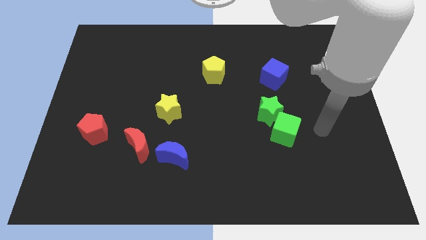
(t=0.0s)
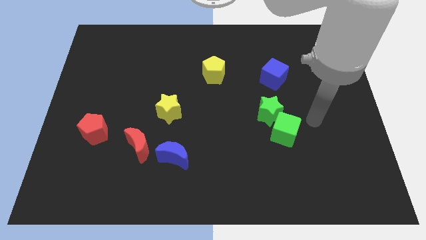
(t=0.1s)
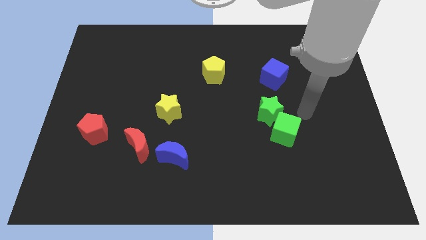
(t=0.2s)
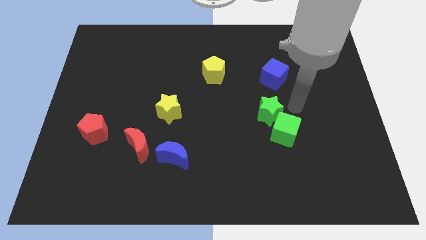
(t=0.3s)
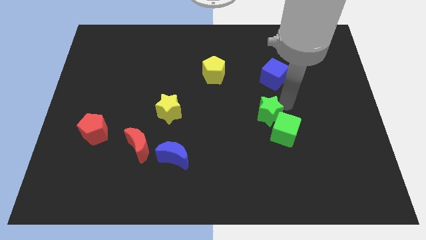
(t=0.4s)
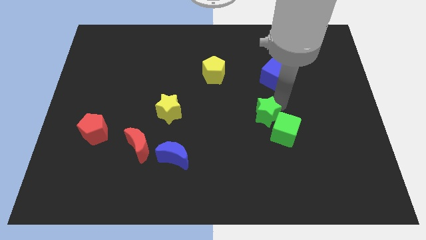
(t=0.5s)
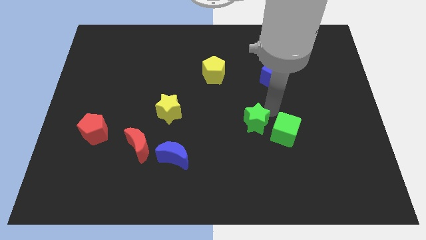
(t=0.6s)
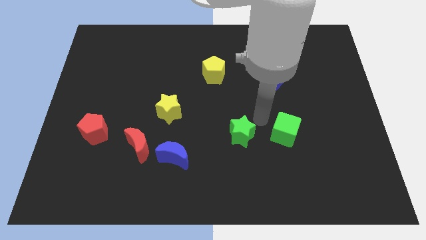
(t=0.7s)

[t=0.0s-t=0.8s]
pull the green cube apart from the green star

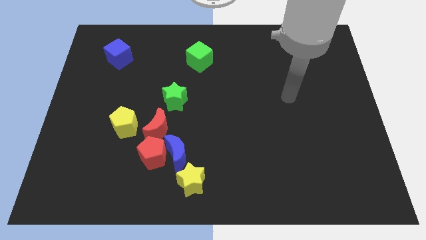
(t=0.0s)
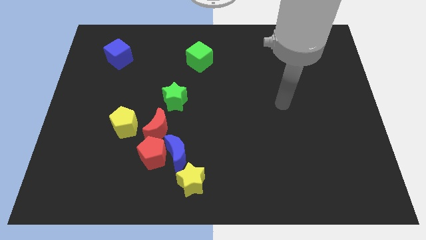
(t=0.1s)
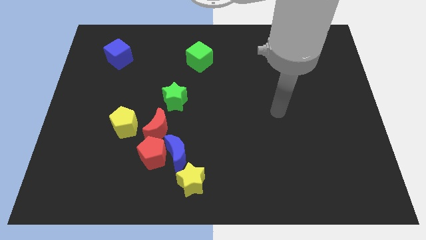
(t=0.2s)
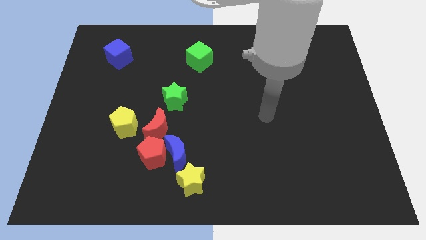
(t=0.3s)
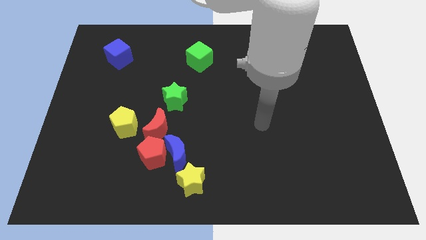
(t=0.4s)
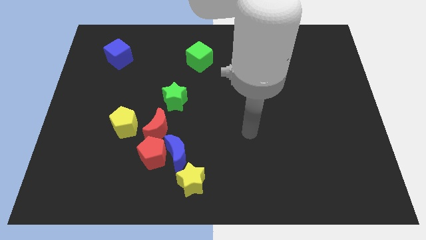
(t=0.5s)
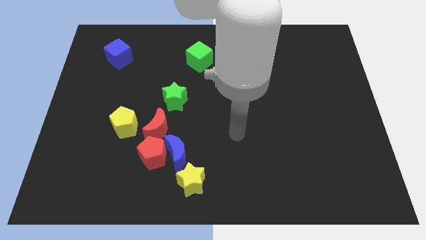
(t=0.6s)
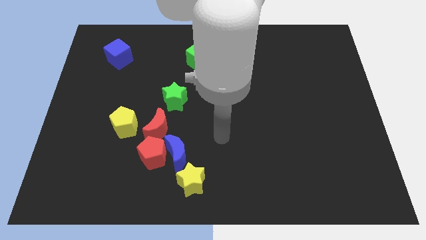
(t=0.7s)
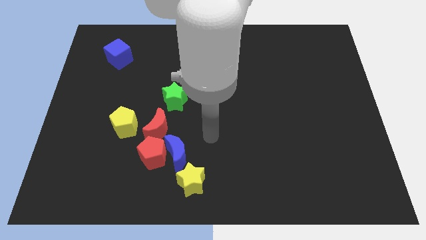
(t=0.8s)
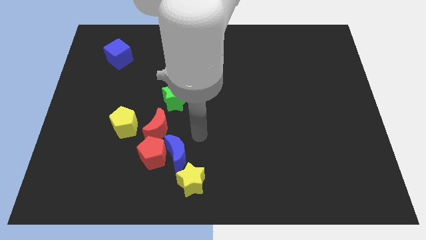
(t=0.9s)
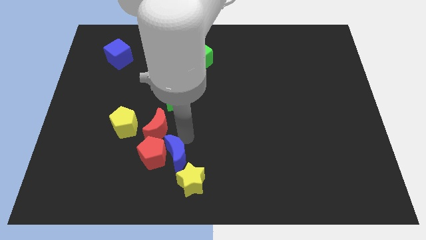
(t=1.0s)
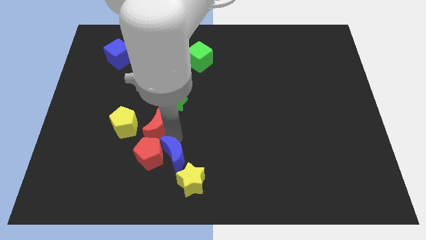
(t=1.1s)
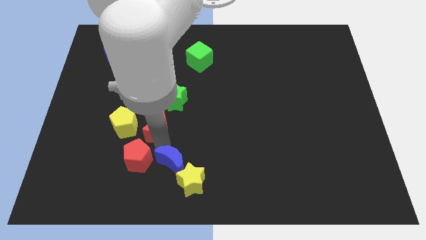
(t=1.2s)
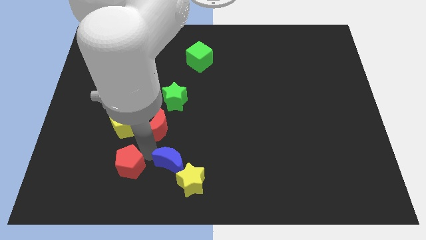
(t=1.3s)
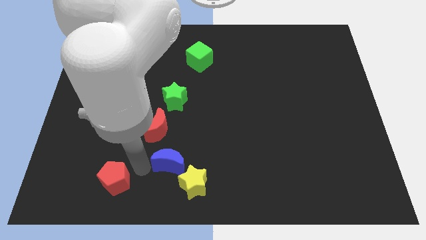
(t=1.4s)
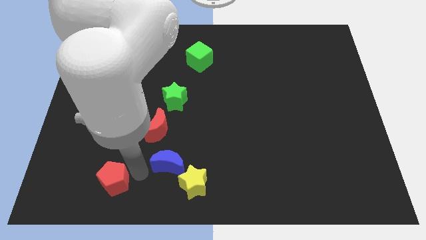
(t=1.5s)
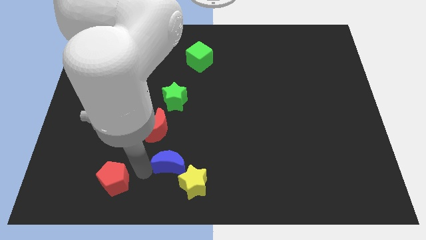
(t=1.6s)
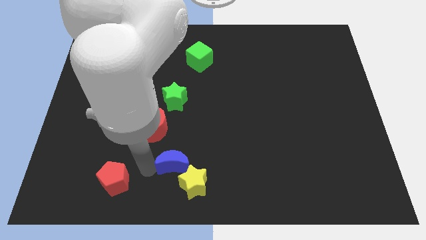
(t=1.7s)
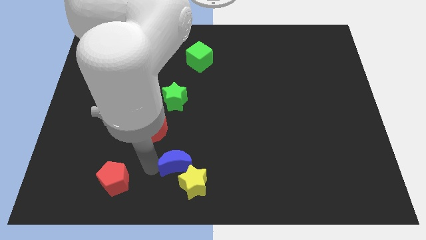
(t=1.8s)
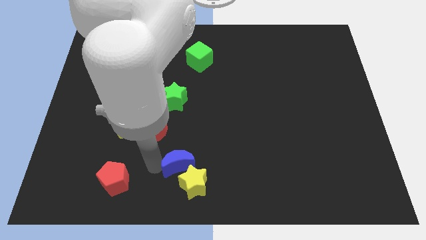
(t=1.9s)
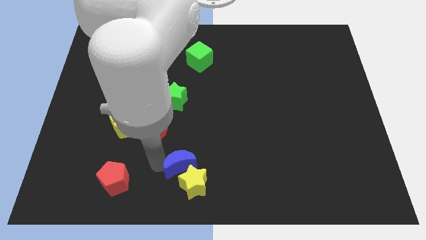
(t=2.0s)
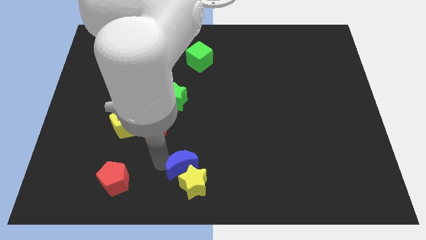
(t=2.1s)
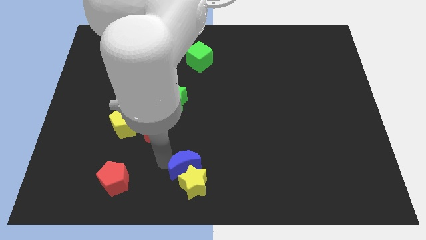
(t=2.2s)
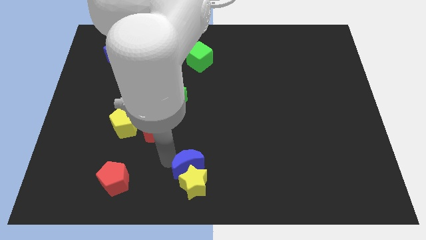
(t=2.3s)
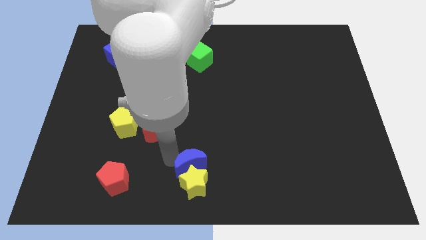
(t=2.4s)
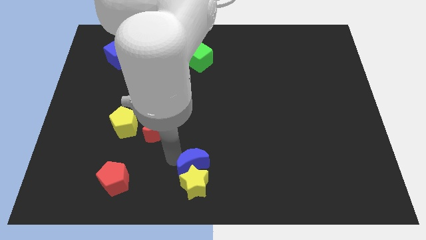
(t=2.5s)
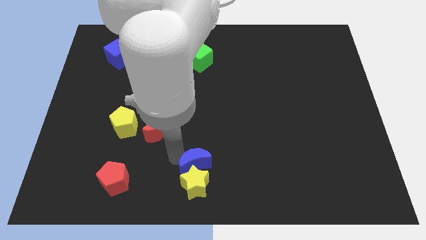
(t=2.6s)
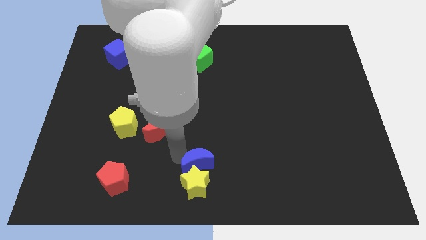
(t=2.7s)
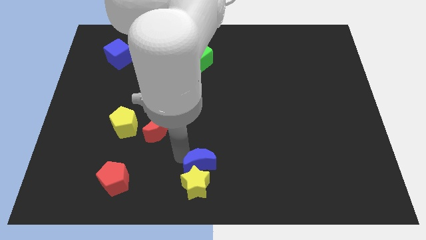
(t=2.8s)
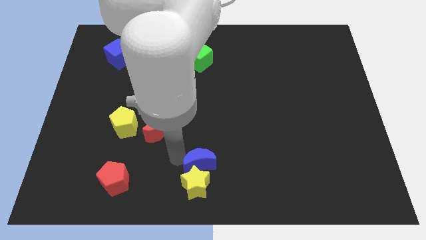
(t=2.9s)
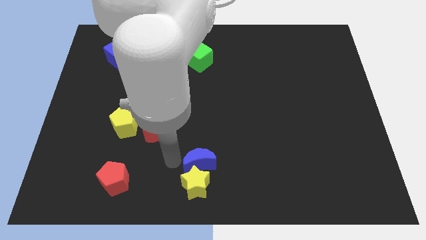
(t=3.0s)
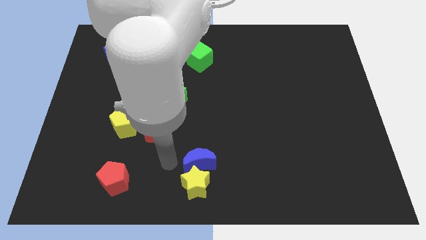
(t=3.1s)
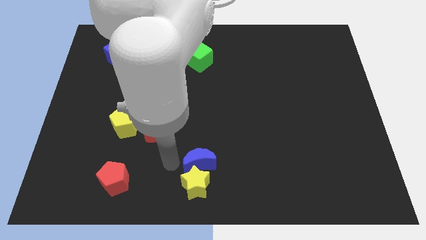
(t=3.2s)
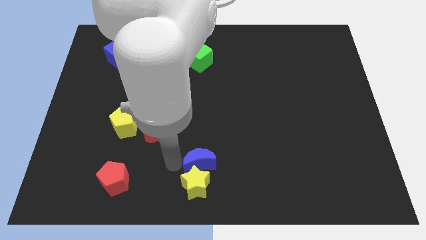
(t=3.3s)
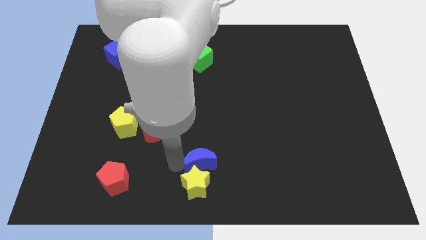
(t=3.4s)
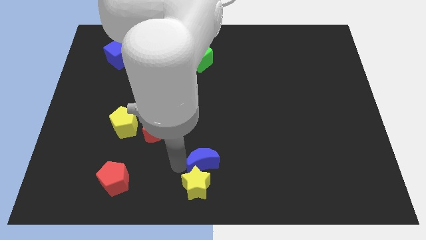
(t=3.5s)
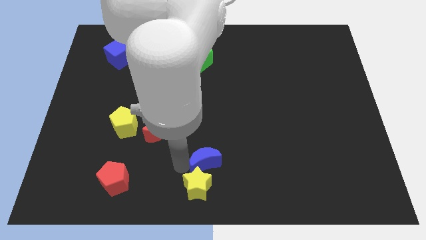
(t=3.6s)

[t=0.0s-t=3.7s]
separate the blue moon from the red pentagon, yellow star, and red moon

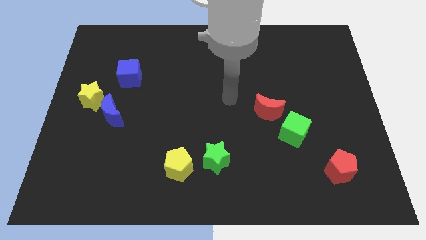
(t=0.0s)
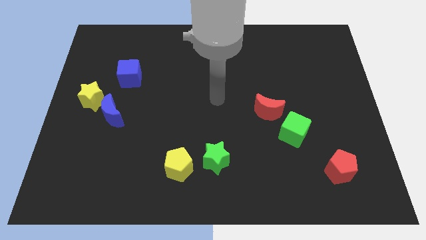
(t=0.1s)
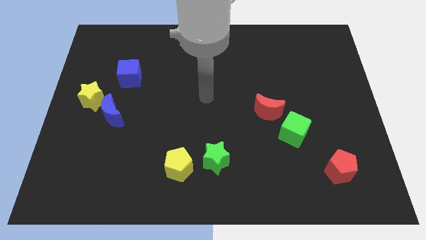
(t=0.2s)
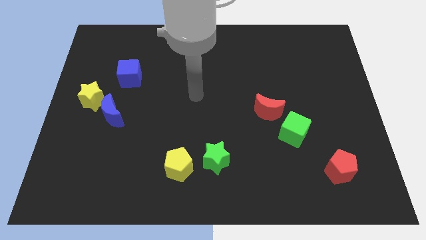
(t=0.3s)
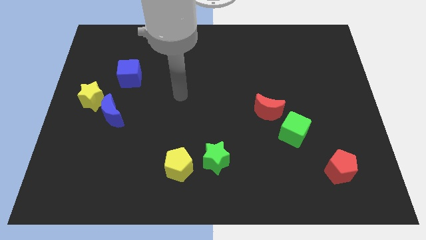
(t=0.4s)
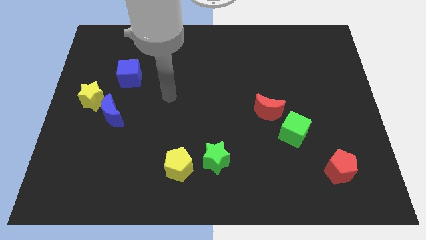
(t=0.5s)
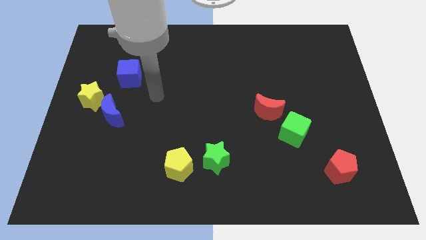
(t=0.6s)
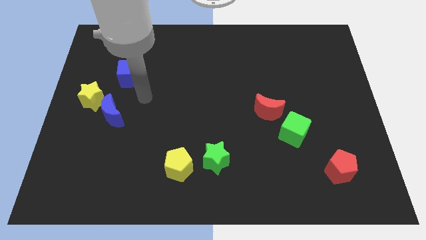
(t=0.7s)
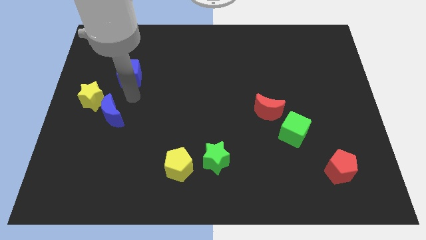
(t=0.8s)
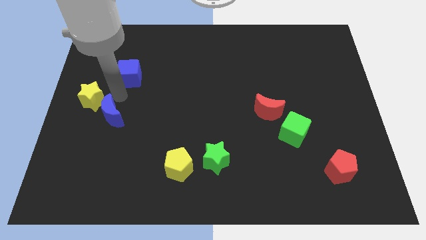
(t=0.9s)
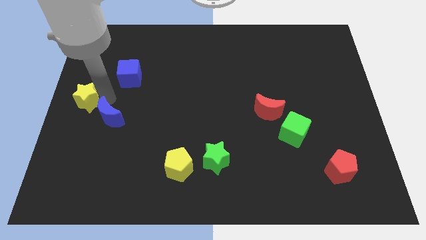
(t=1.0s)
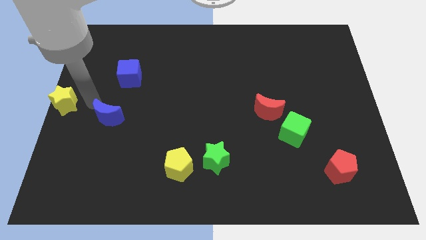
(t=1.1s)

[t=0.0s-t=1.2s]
separate the blue moon from the yellow star

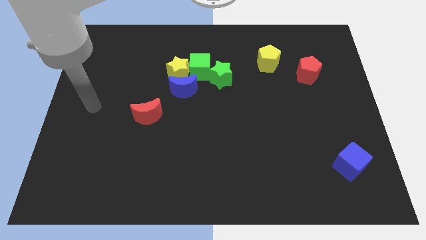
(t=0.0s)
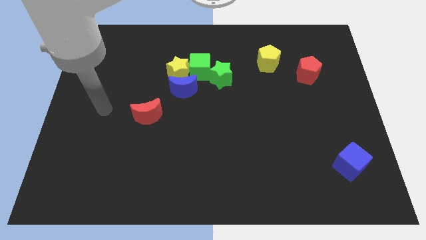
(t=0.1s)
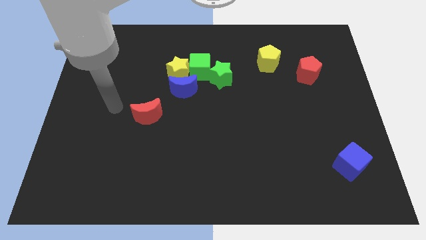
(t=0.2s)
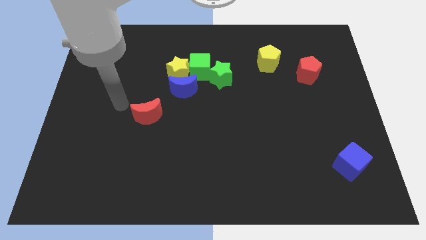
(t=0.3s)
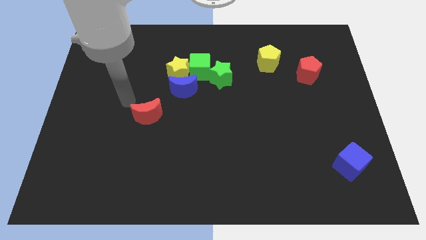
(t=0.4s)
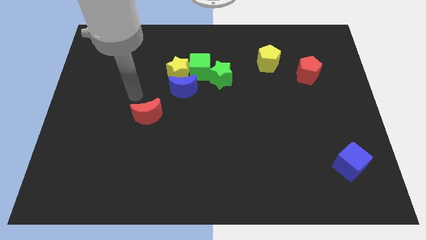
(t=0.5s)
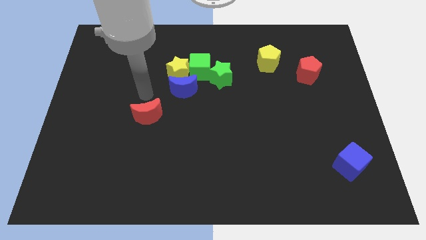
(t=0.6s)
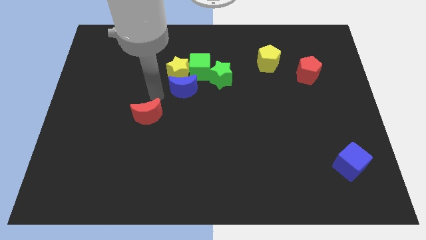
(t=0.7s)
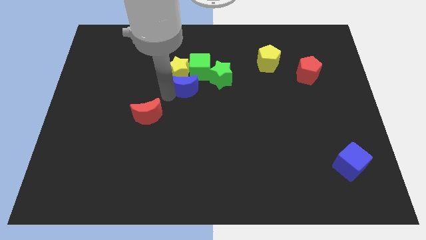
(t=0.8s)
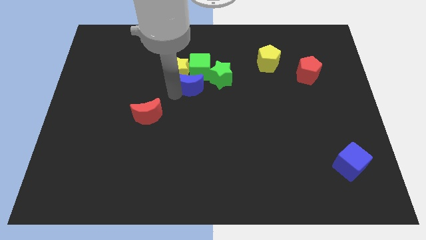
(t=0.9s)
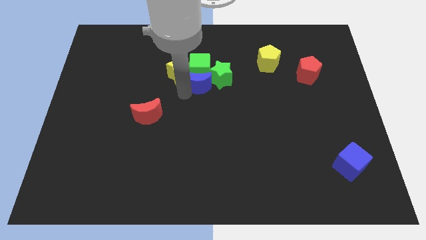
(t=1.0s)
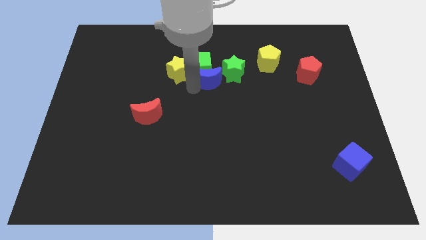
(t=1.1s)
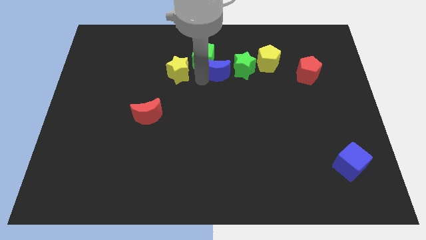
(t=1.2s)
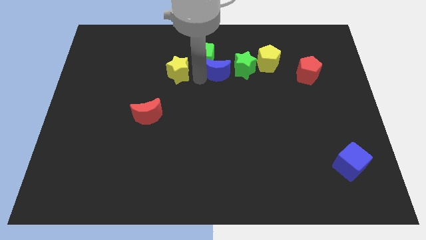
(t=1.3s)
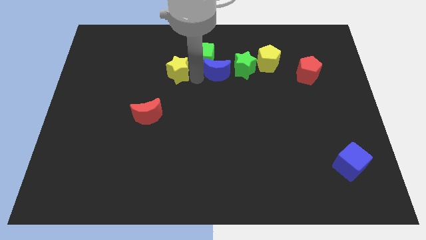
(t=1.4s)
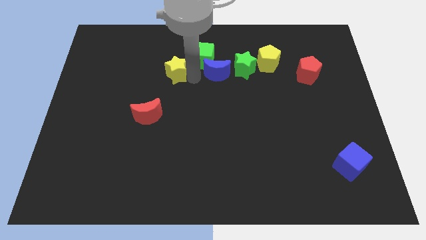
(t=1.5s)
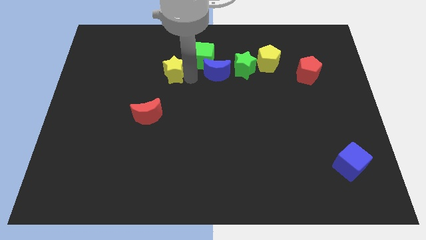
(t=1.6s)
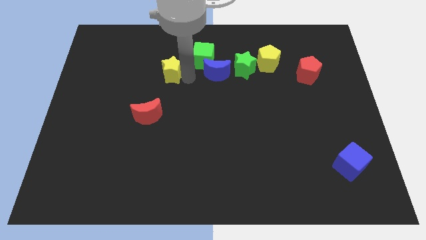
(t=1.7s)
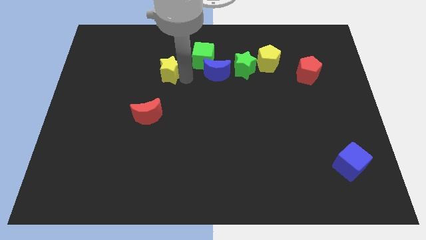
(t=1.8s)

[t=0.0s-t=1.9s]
pull the yellow star apart from the green cube and blue moon

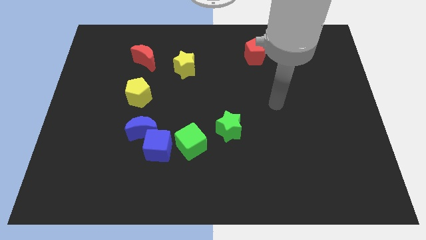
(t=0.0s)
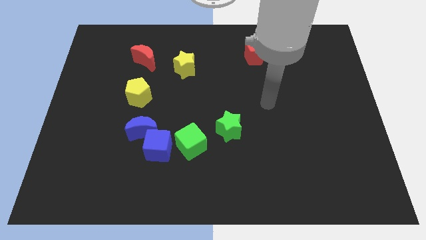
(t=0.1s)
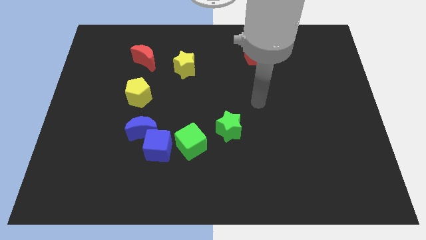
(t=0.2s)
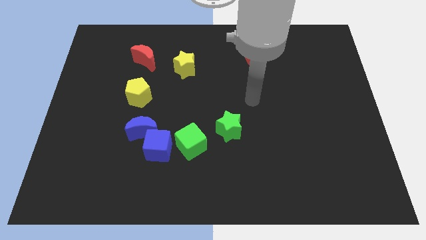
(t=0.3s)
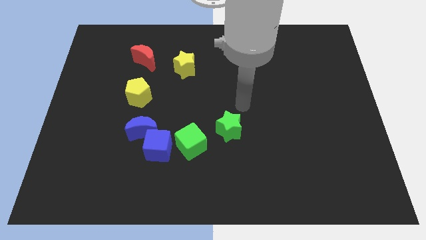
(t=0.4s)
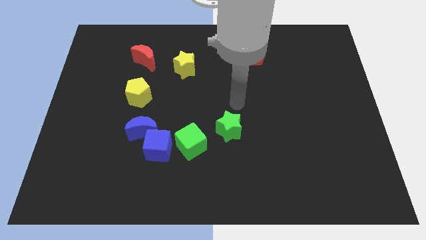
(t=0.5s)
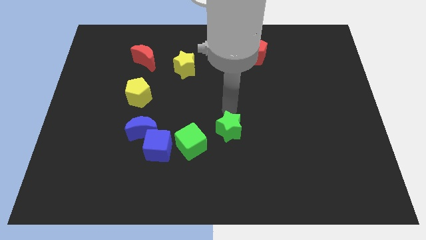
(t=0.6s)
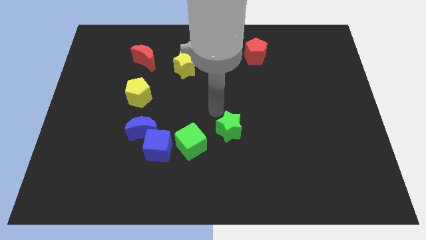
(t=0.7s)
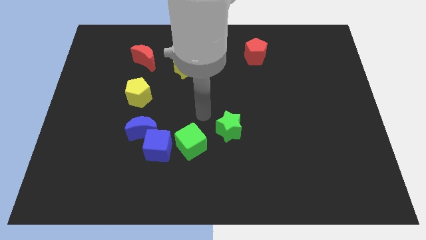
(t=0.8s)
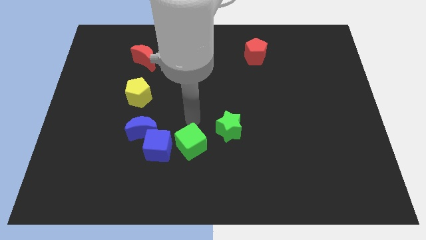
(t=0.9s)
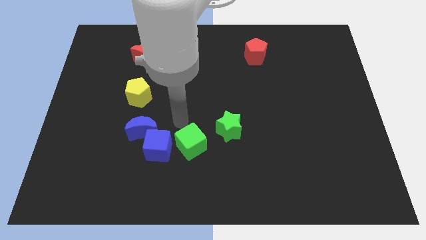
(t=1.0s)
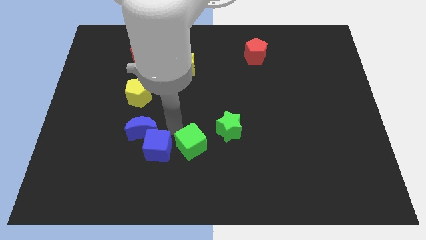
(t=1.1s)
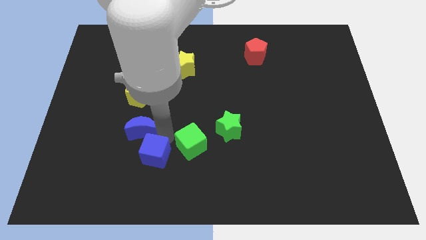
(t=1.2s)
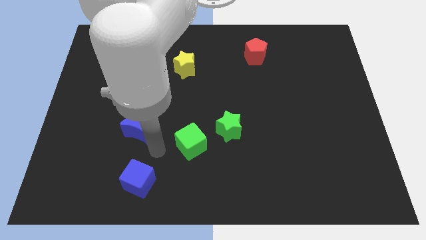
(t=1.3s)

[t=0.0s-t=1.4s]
move the blue moon away from the blue cube

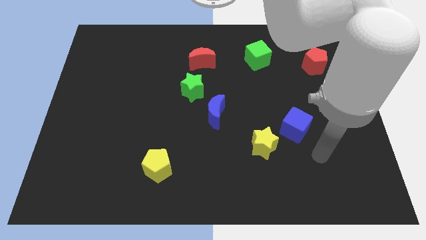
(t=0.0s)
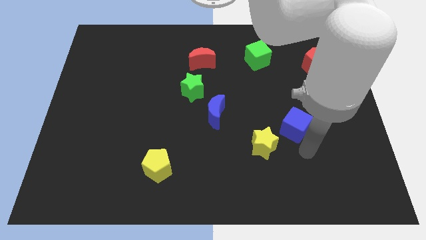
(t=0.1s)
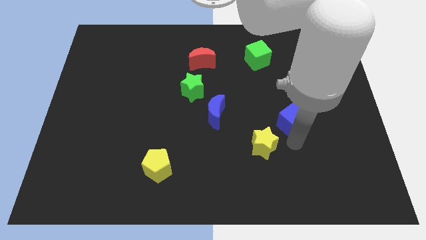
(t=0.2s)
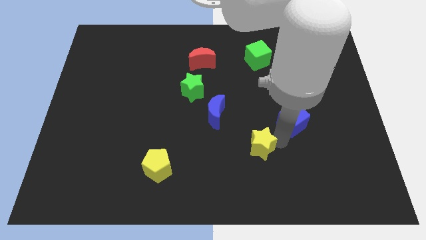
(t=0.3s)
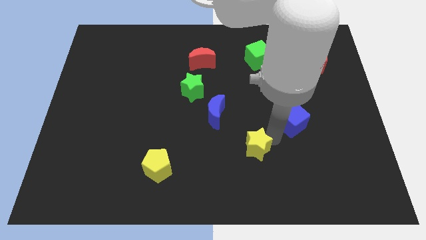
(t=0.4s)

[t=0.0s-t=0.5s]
separate the blue cube from the yellow star
